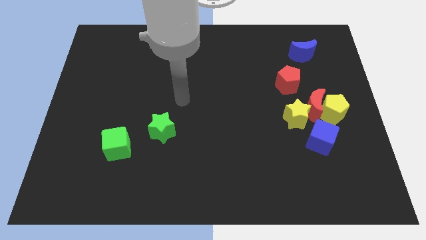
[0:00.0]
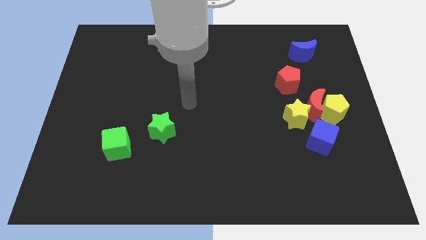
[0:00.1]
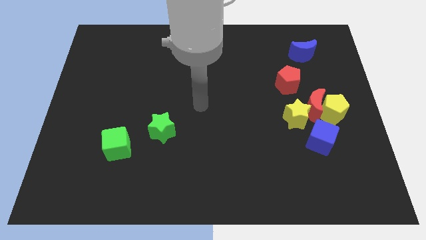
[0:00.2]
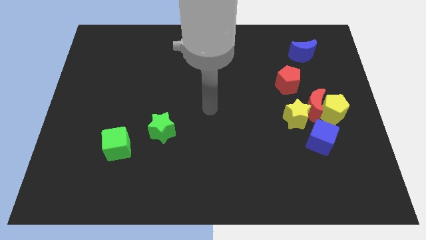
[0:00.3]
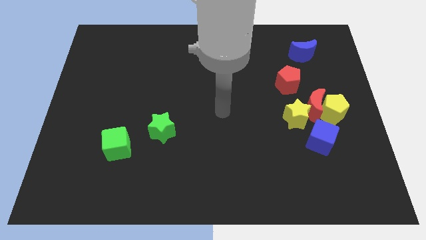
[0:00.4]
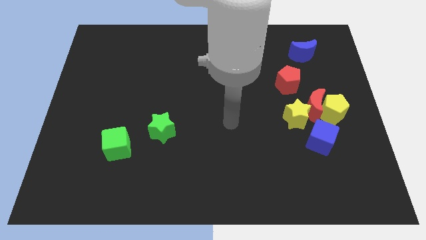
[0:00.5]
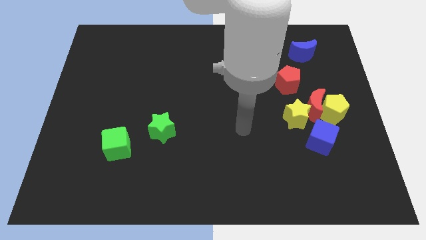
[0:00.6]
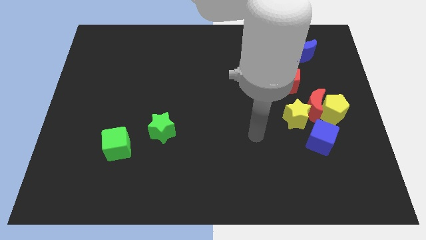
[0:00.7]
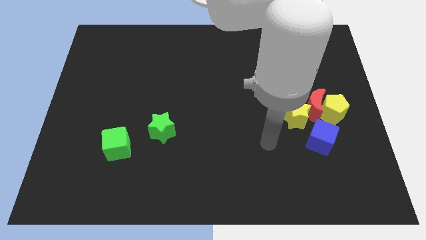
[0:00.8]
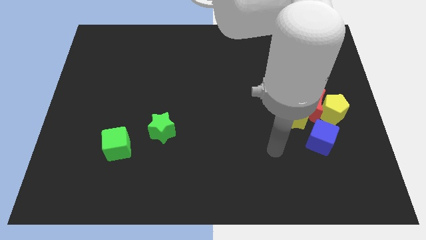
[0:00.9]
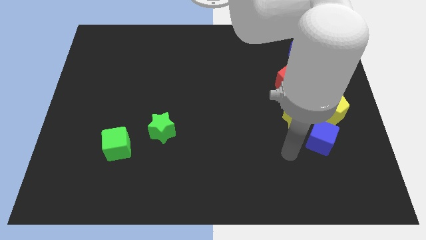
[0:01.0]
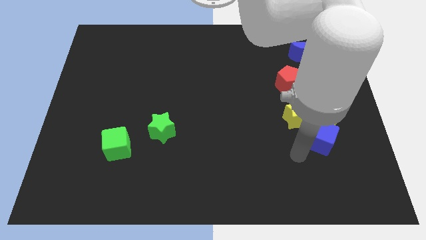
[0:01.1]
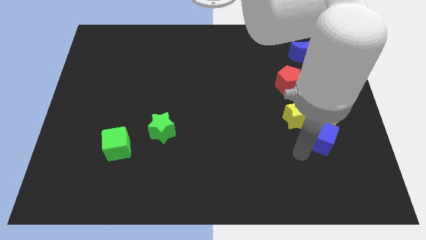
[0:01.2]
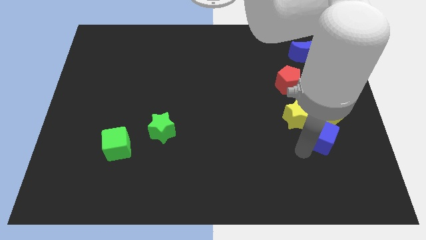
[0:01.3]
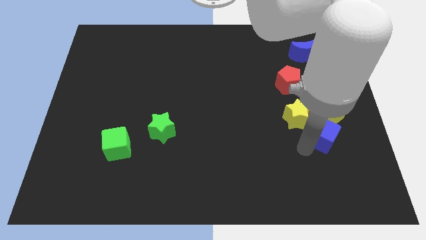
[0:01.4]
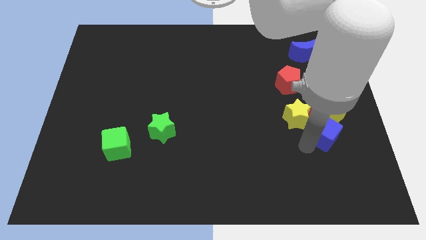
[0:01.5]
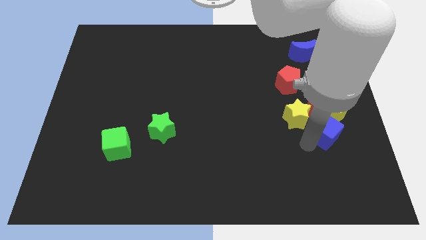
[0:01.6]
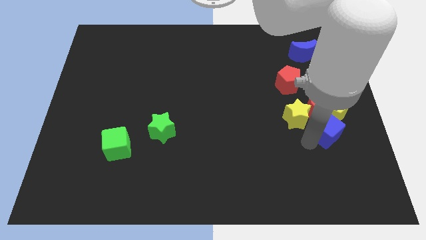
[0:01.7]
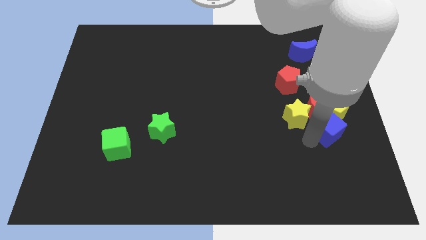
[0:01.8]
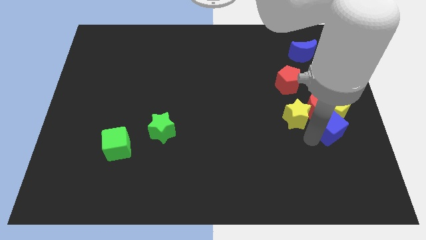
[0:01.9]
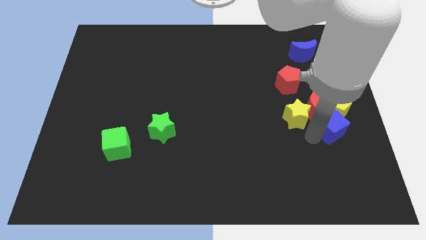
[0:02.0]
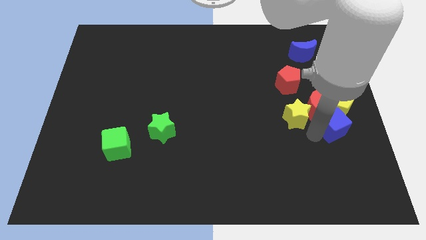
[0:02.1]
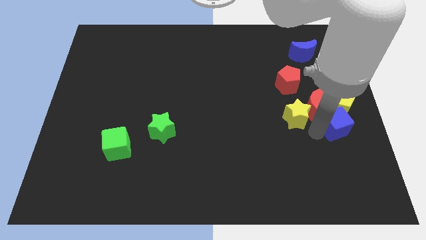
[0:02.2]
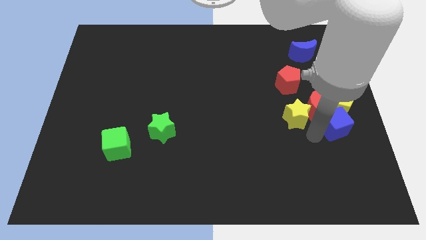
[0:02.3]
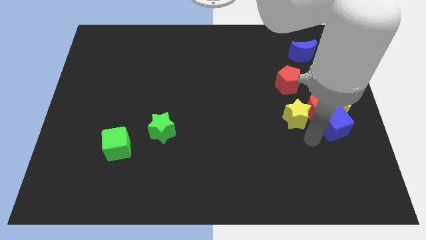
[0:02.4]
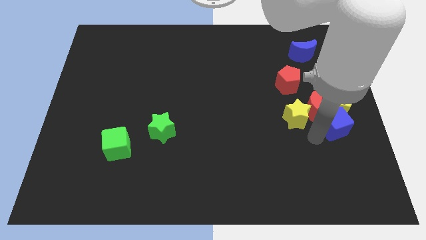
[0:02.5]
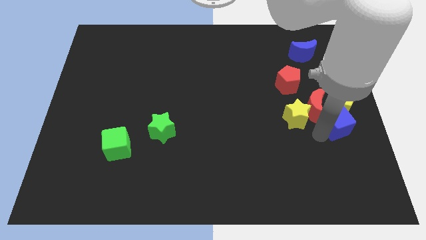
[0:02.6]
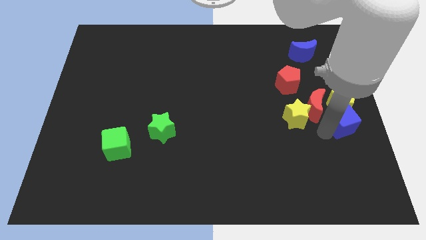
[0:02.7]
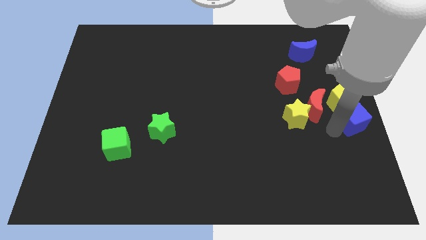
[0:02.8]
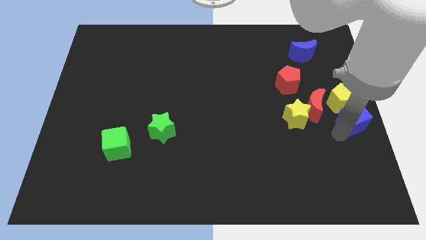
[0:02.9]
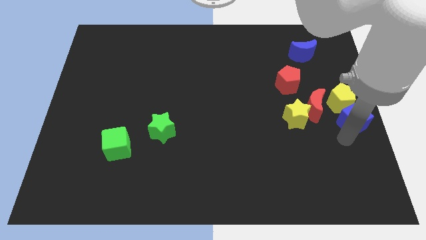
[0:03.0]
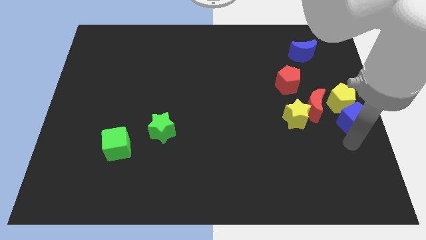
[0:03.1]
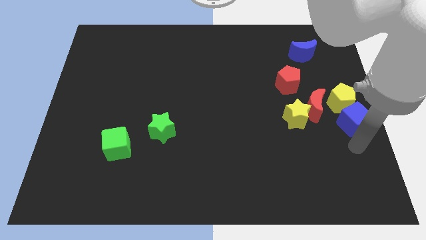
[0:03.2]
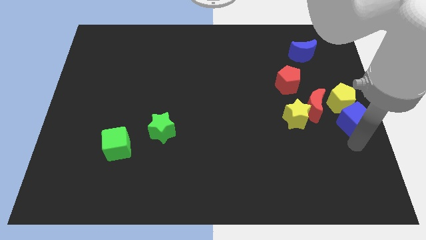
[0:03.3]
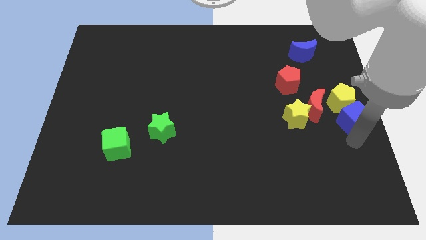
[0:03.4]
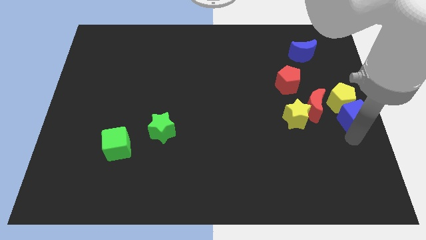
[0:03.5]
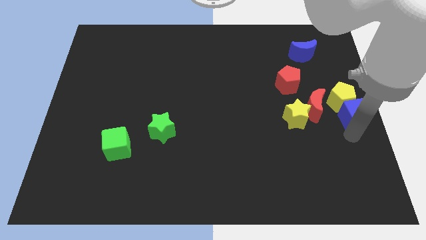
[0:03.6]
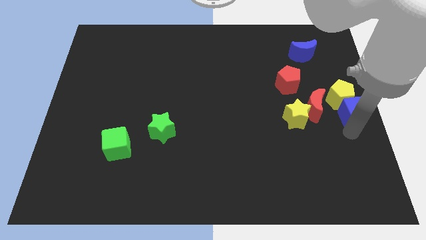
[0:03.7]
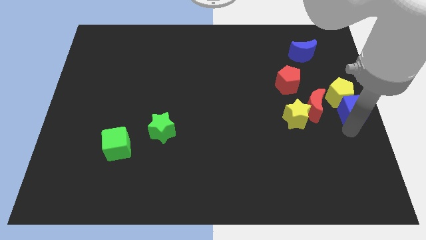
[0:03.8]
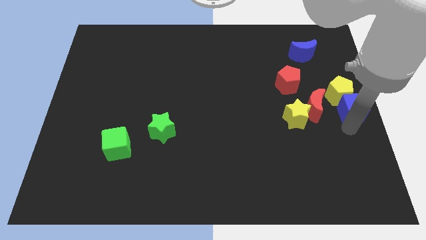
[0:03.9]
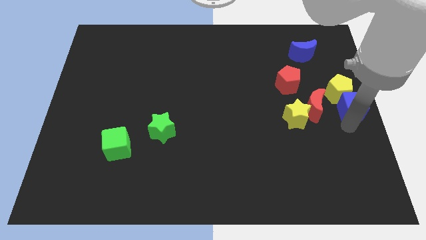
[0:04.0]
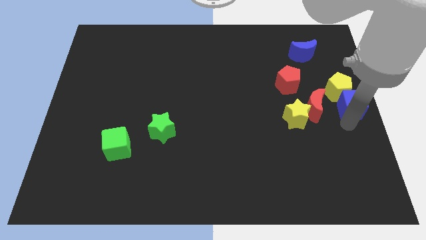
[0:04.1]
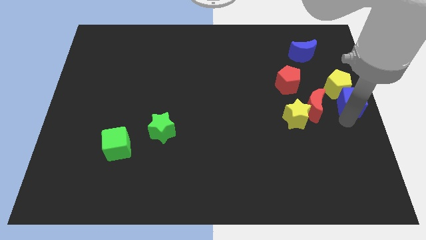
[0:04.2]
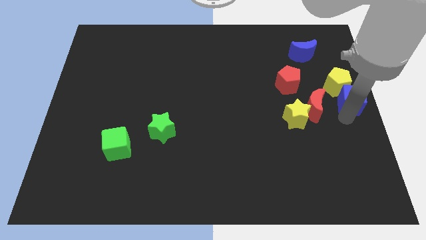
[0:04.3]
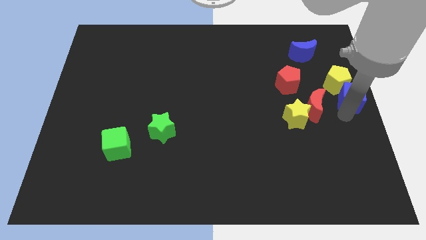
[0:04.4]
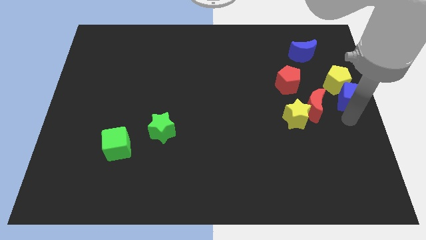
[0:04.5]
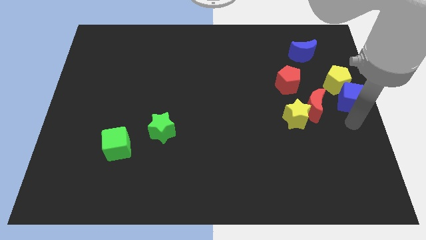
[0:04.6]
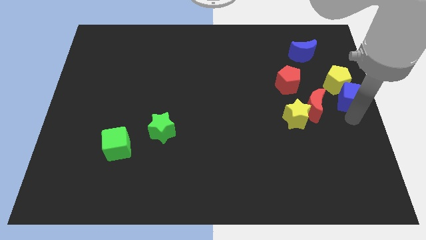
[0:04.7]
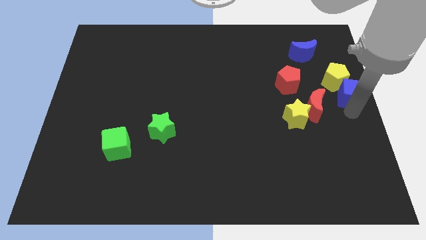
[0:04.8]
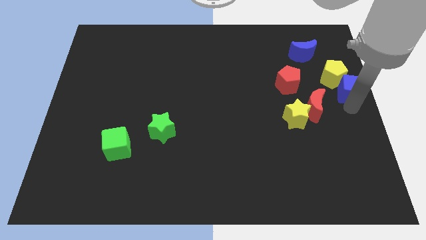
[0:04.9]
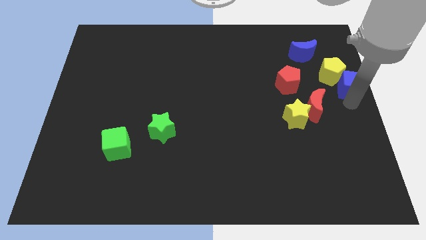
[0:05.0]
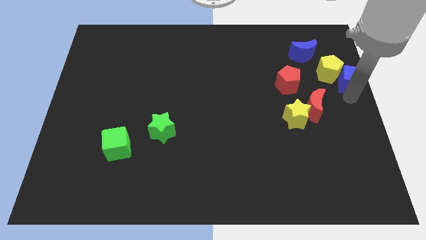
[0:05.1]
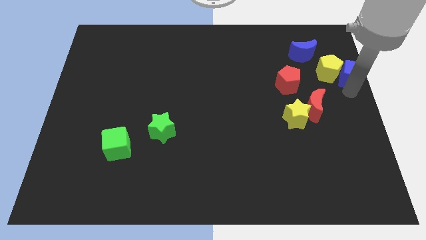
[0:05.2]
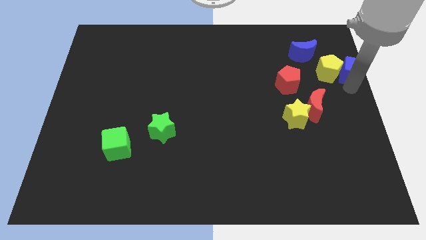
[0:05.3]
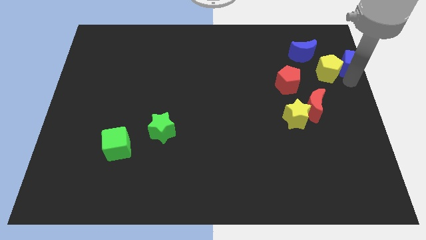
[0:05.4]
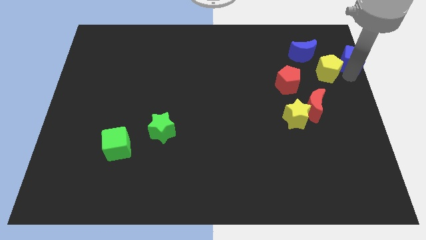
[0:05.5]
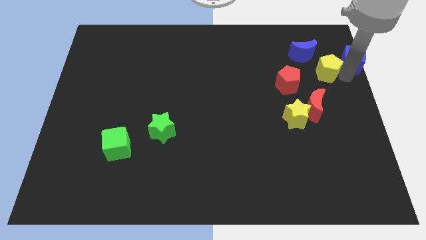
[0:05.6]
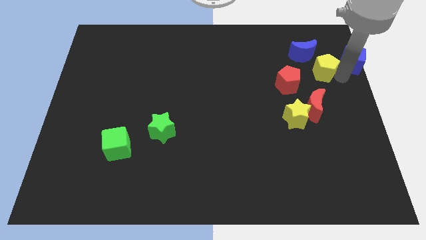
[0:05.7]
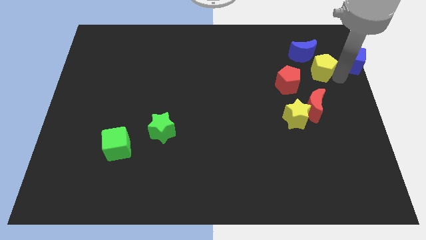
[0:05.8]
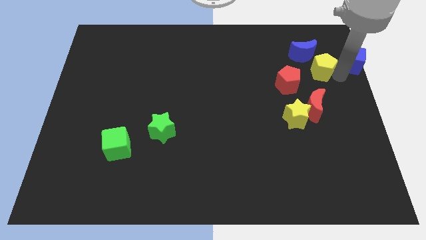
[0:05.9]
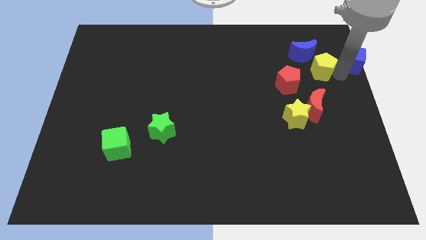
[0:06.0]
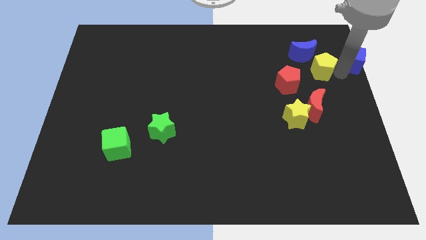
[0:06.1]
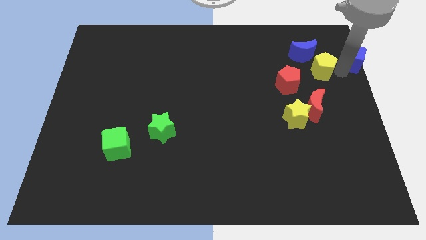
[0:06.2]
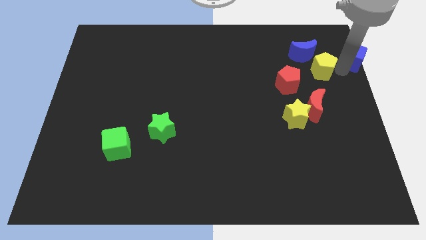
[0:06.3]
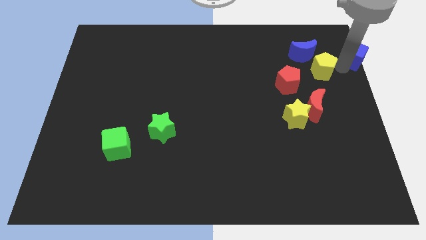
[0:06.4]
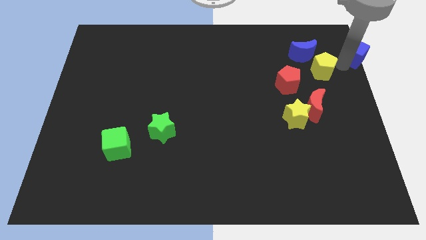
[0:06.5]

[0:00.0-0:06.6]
push the blue cube to the top right corner
